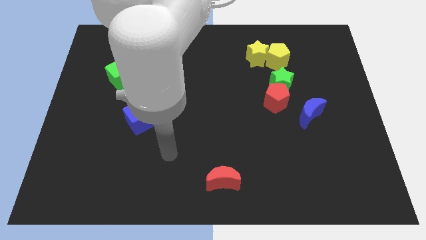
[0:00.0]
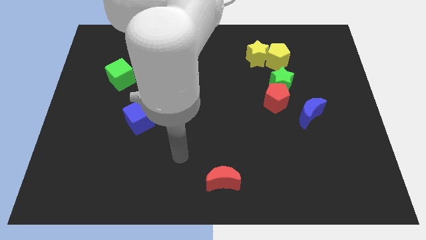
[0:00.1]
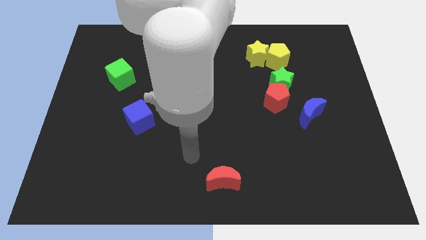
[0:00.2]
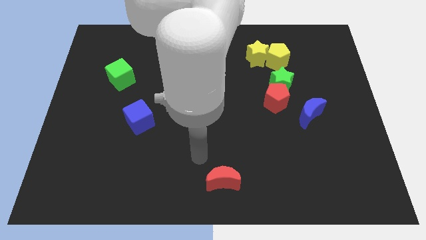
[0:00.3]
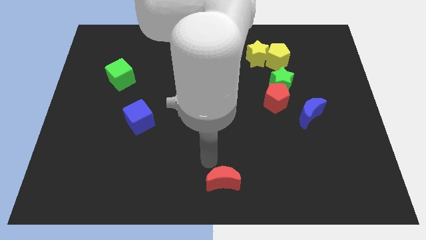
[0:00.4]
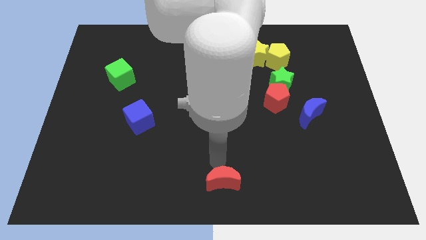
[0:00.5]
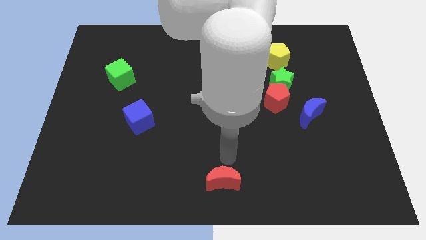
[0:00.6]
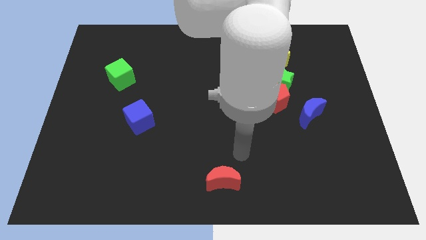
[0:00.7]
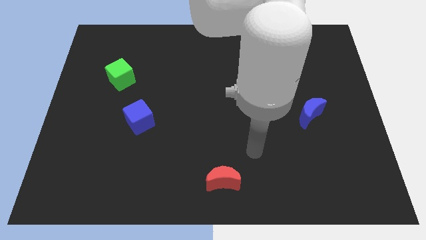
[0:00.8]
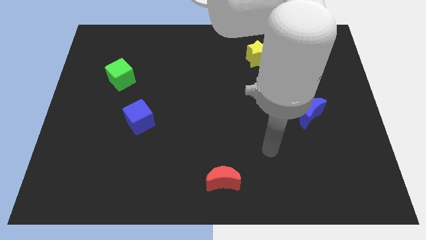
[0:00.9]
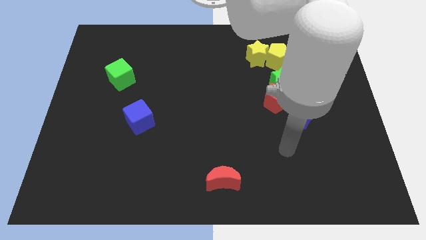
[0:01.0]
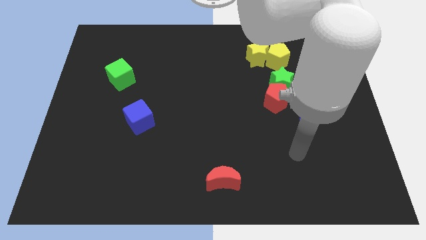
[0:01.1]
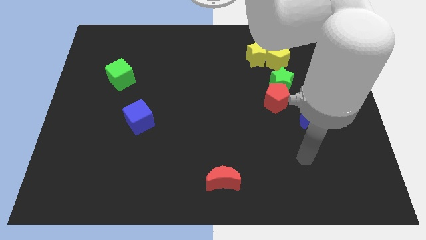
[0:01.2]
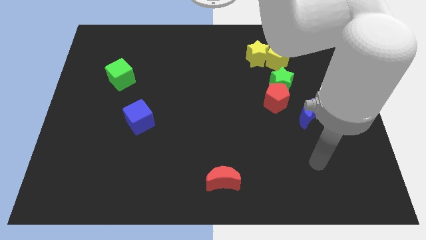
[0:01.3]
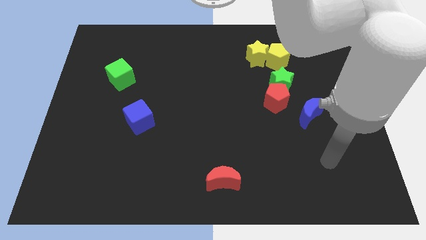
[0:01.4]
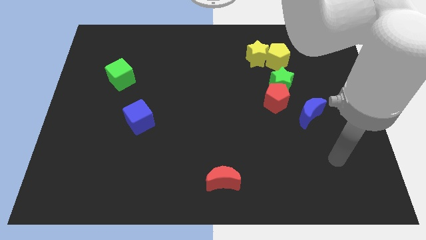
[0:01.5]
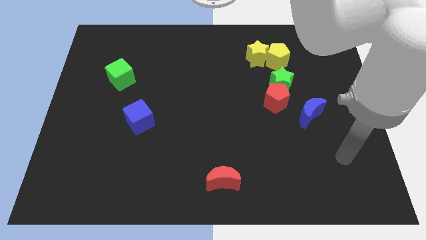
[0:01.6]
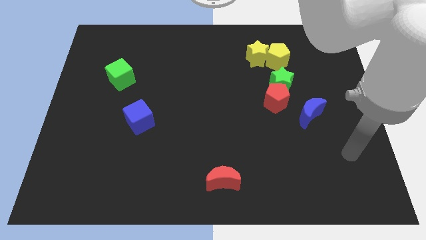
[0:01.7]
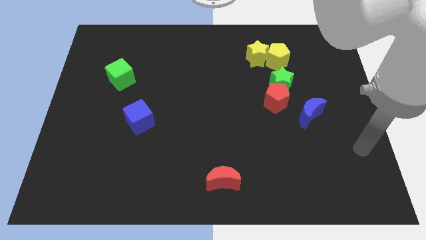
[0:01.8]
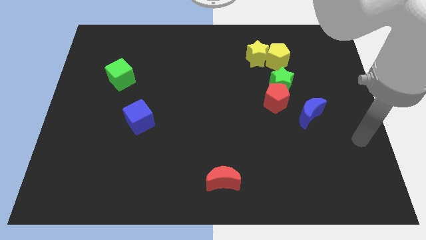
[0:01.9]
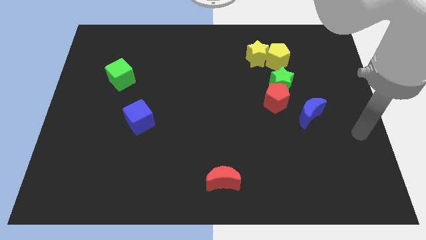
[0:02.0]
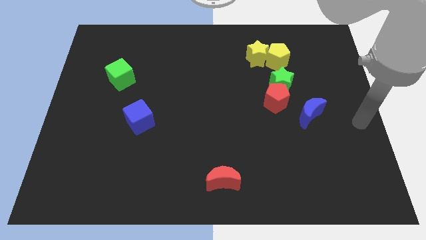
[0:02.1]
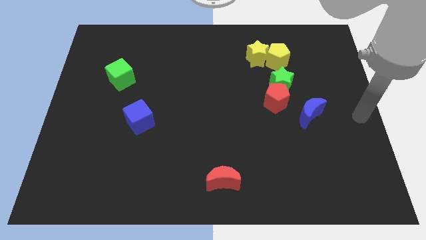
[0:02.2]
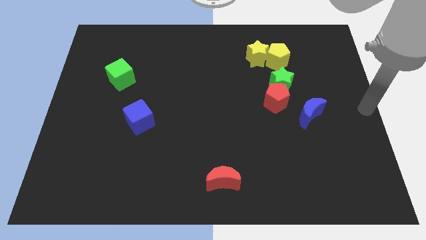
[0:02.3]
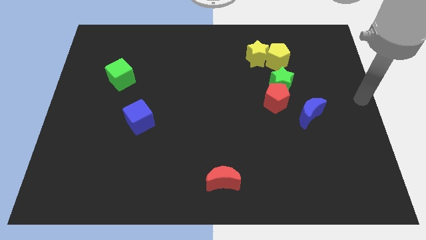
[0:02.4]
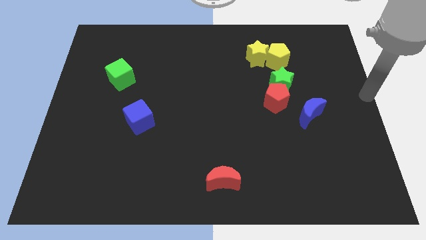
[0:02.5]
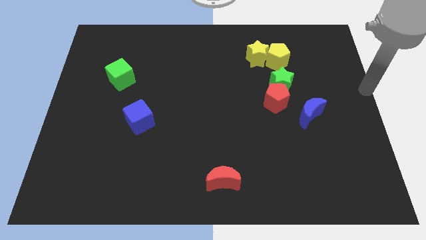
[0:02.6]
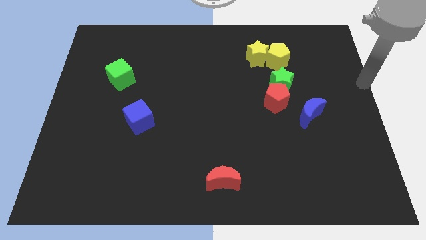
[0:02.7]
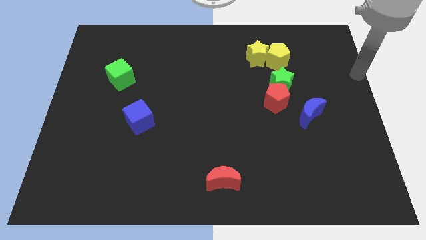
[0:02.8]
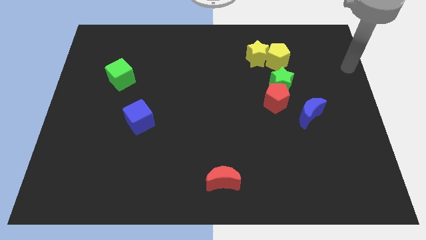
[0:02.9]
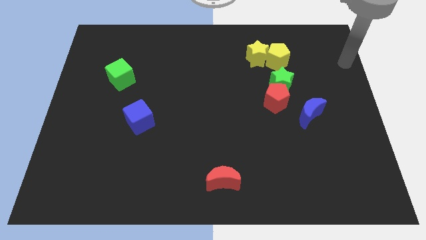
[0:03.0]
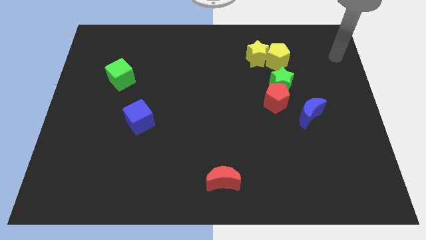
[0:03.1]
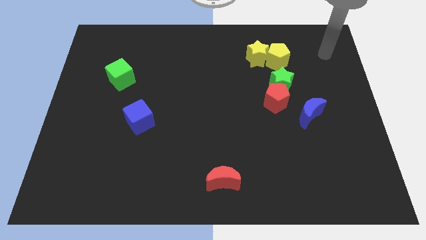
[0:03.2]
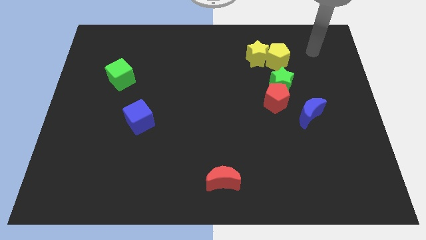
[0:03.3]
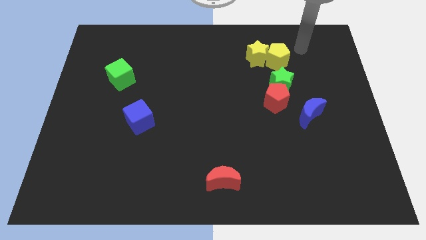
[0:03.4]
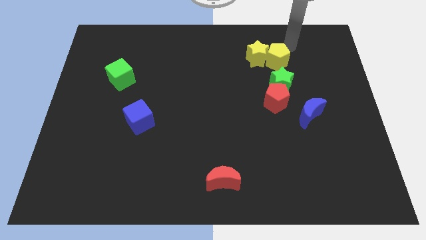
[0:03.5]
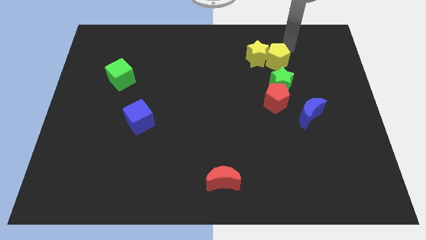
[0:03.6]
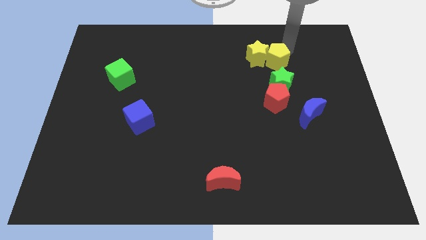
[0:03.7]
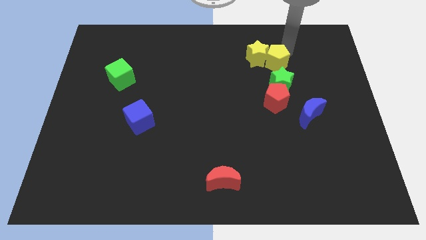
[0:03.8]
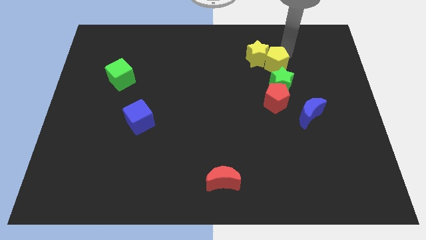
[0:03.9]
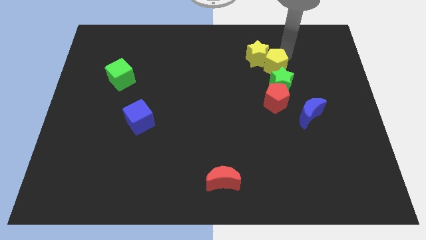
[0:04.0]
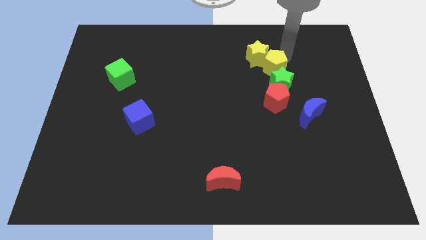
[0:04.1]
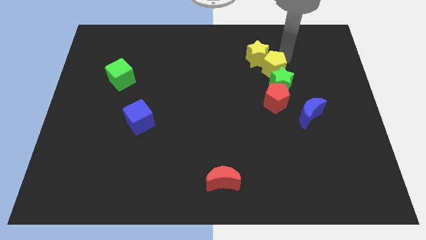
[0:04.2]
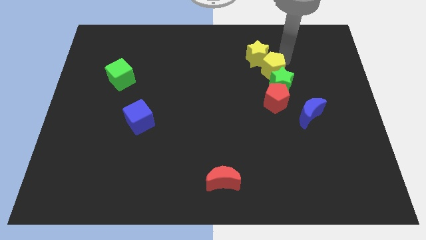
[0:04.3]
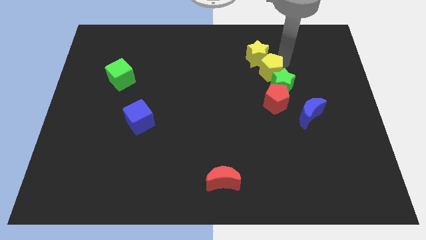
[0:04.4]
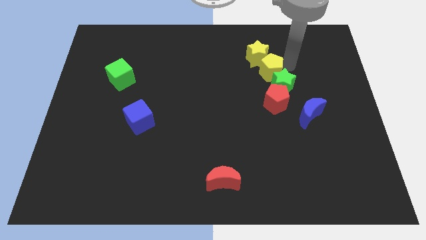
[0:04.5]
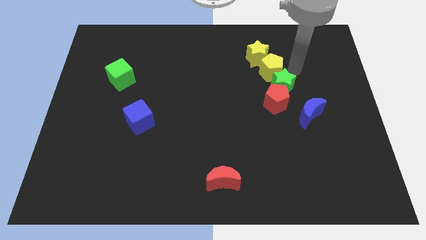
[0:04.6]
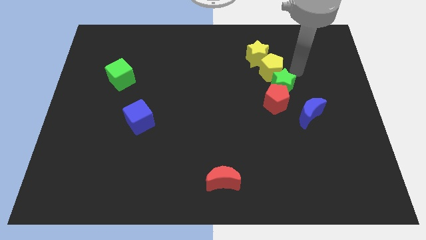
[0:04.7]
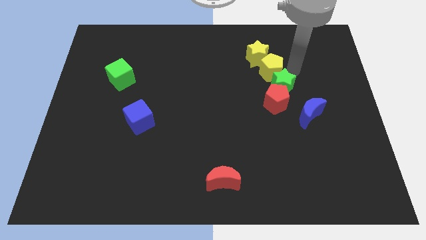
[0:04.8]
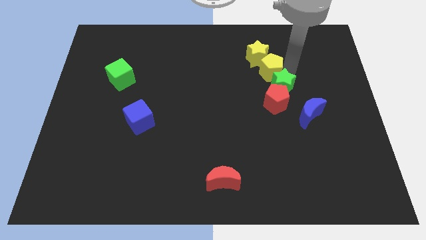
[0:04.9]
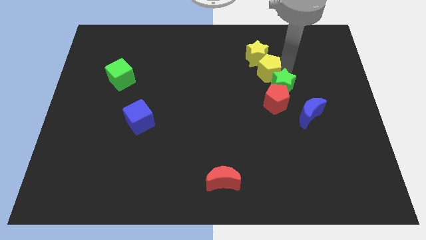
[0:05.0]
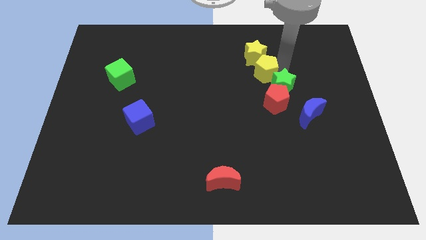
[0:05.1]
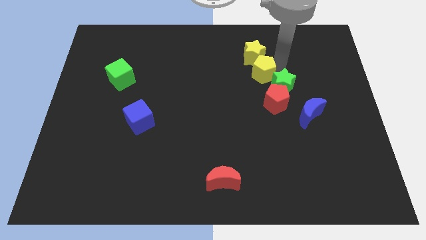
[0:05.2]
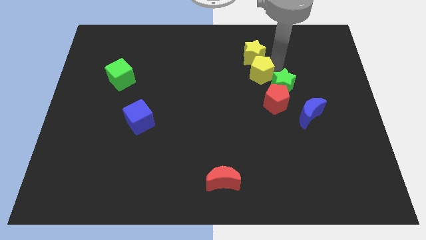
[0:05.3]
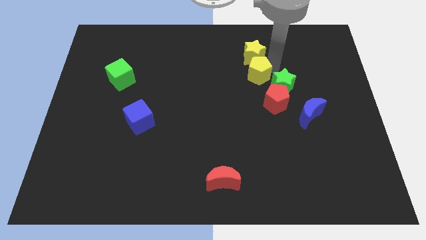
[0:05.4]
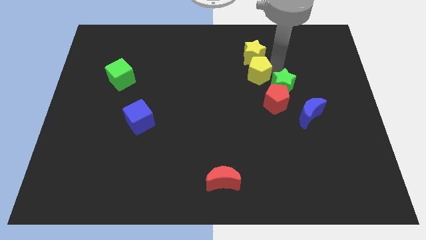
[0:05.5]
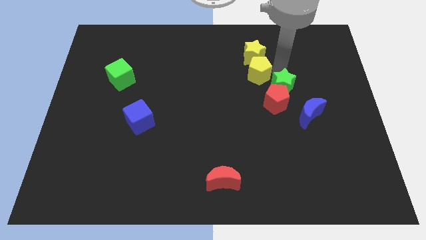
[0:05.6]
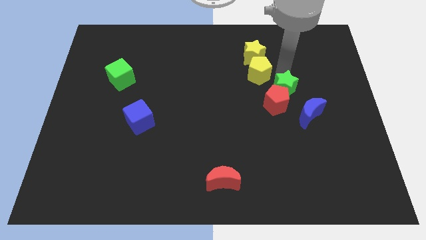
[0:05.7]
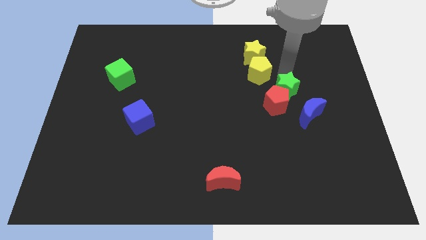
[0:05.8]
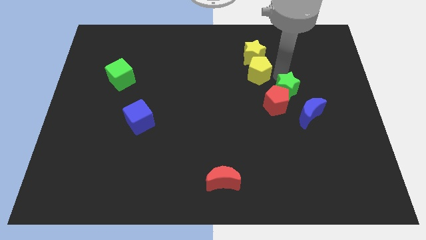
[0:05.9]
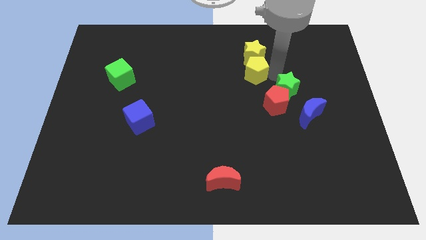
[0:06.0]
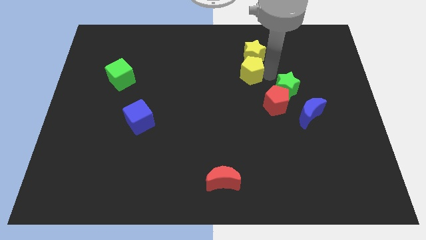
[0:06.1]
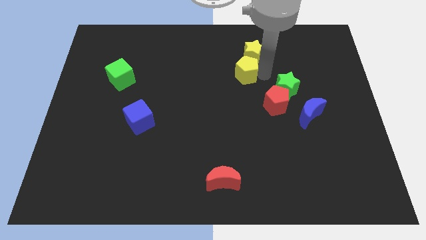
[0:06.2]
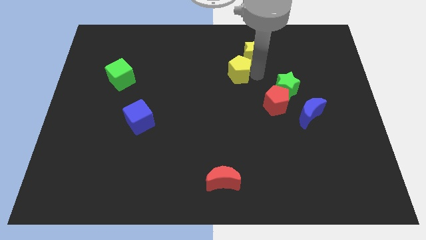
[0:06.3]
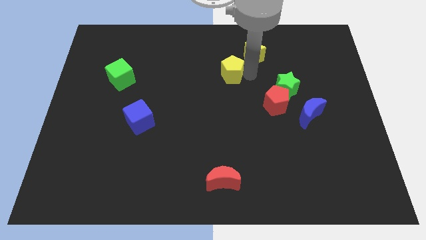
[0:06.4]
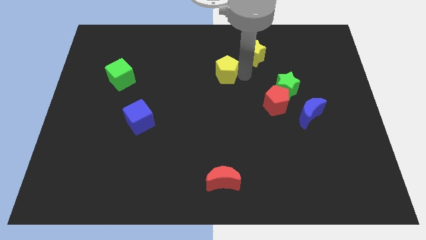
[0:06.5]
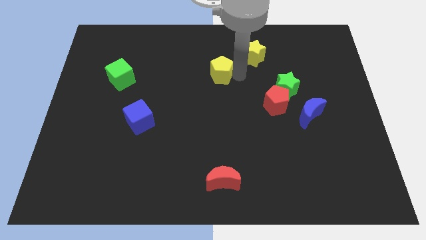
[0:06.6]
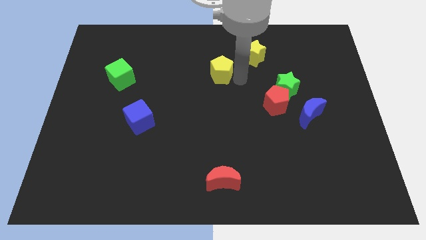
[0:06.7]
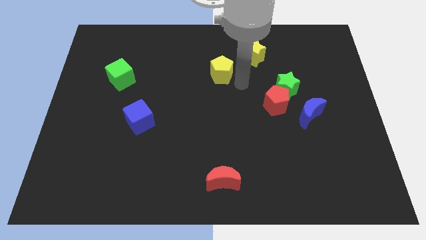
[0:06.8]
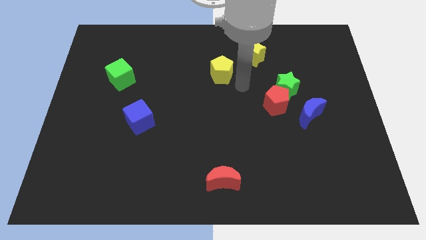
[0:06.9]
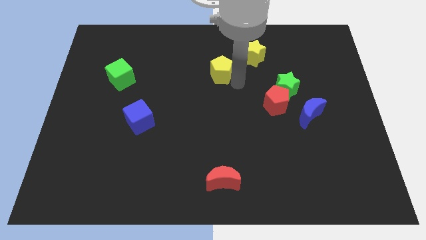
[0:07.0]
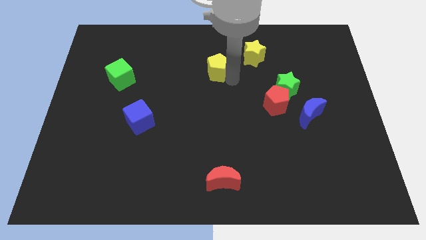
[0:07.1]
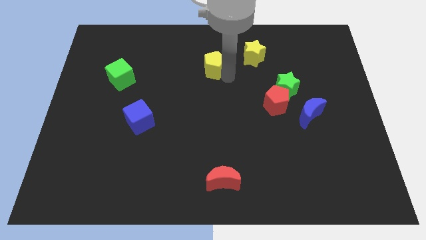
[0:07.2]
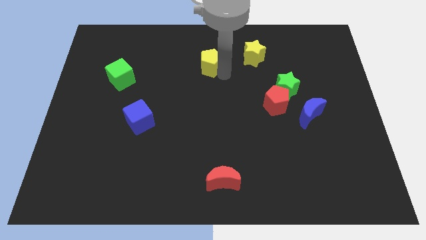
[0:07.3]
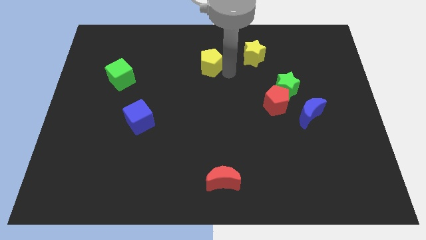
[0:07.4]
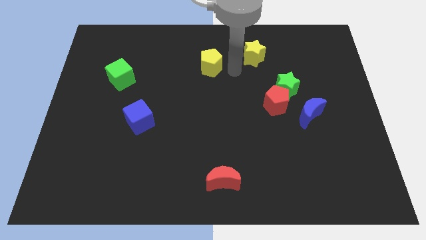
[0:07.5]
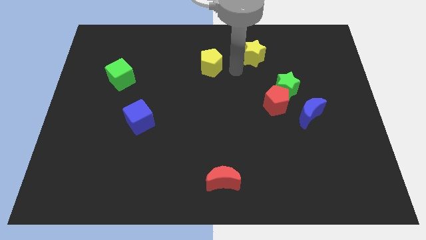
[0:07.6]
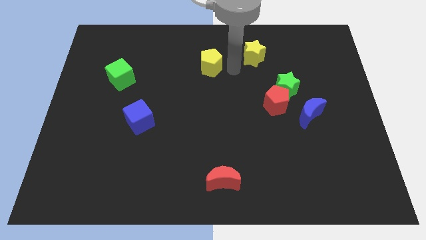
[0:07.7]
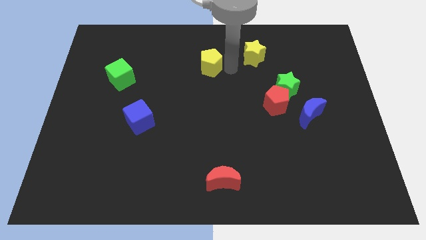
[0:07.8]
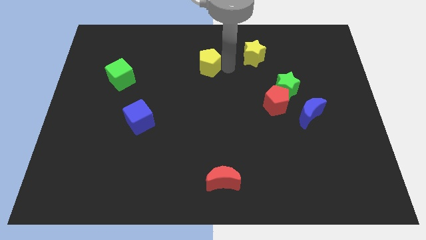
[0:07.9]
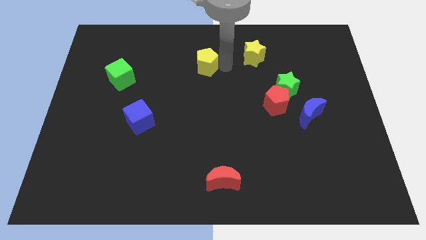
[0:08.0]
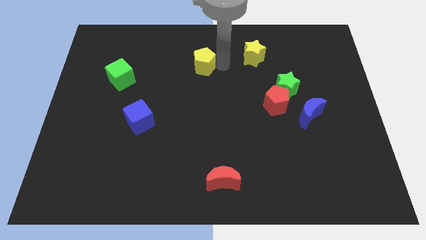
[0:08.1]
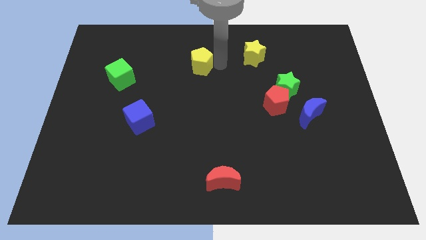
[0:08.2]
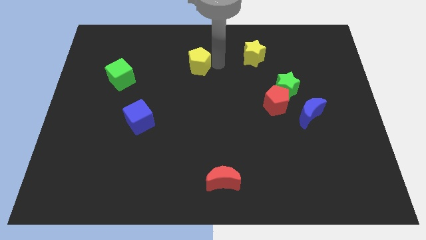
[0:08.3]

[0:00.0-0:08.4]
slide the yellow pentagon to the left

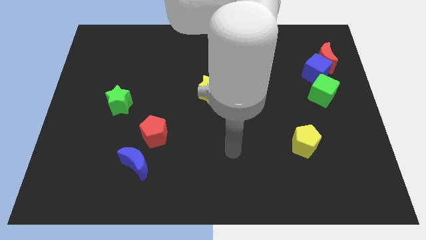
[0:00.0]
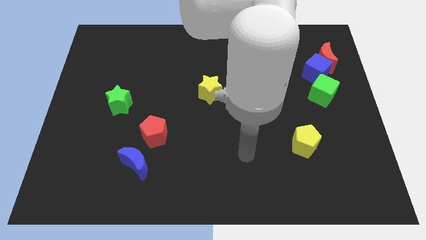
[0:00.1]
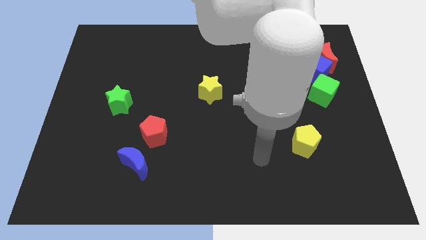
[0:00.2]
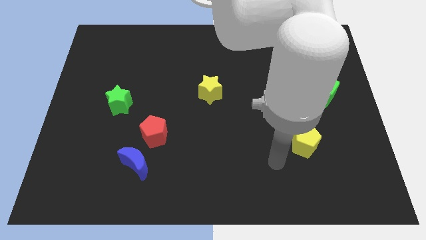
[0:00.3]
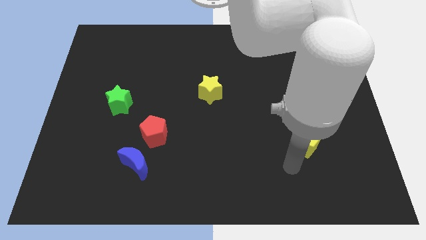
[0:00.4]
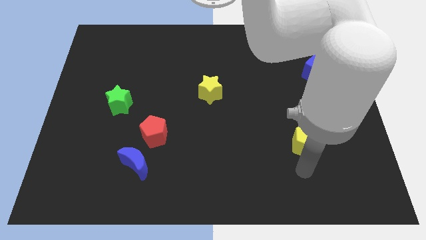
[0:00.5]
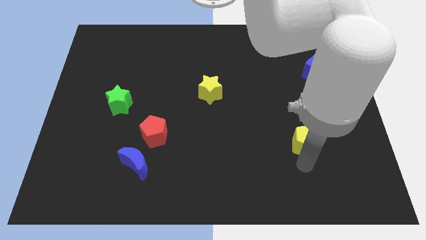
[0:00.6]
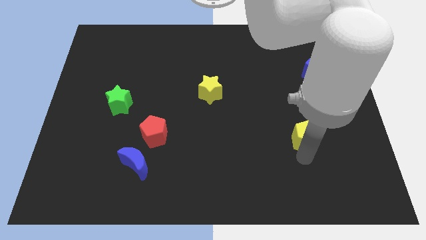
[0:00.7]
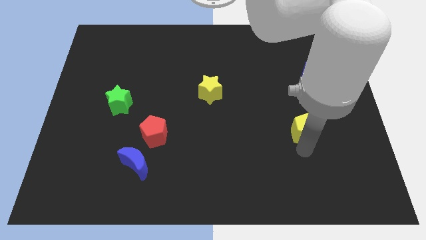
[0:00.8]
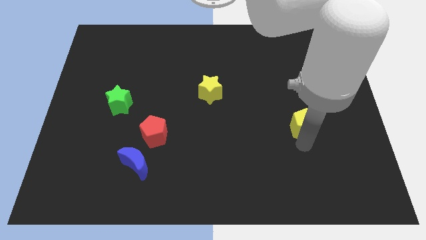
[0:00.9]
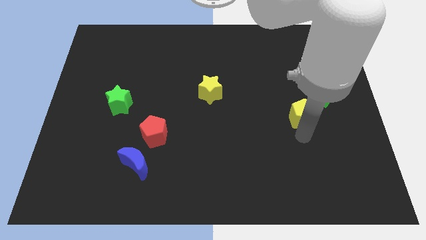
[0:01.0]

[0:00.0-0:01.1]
push the yellow pentagon up slightly
